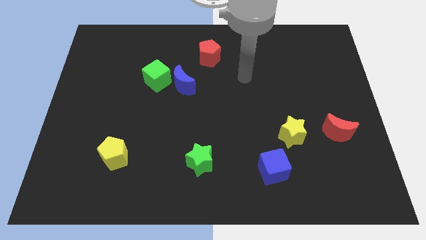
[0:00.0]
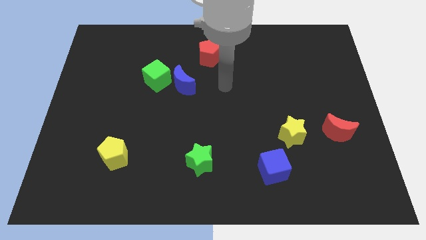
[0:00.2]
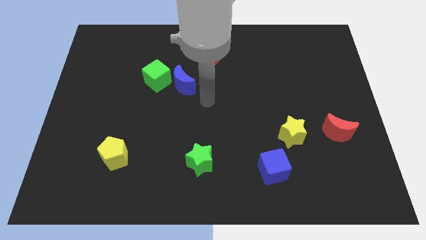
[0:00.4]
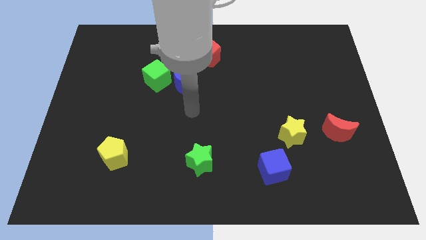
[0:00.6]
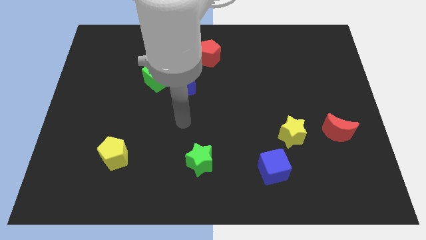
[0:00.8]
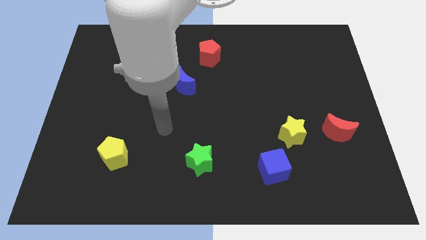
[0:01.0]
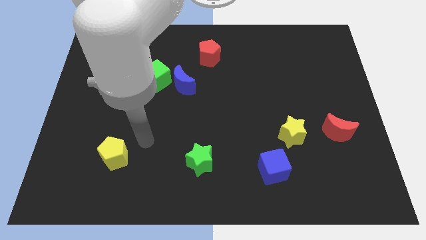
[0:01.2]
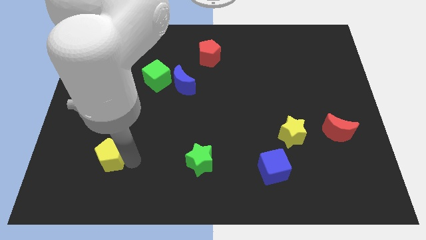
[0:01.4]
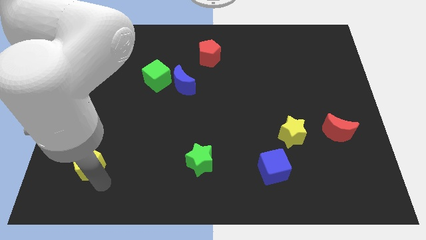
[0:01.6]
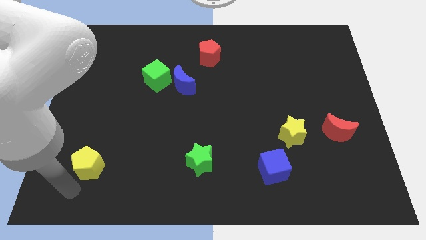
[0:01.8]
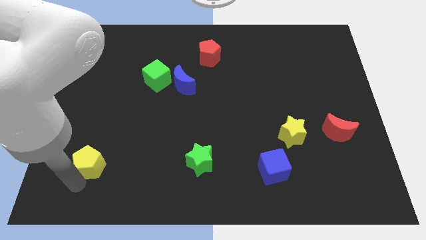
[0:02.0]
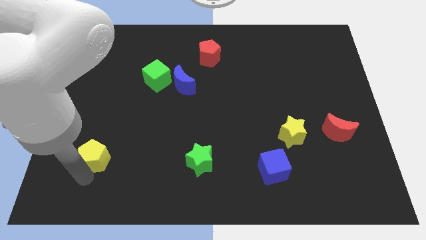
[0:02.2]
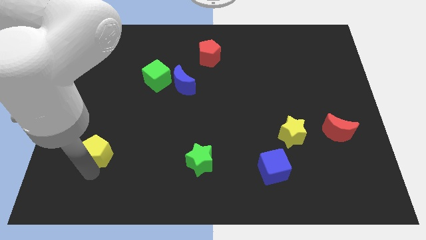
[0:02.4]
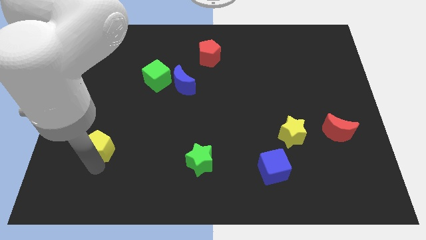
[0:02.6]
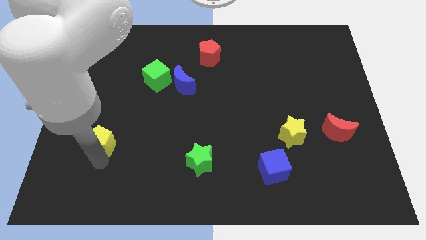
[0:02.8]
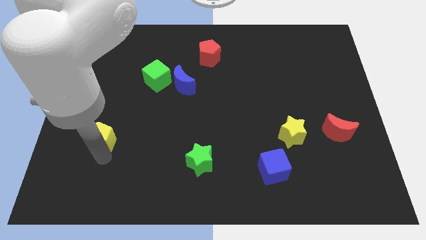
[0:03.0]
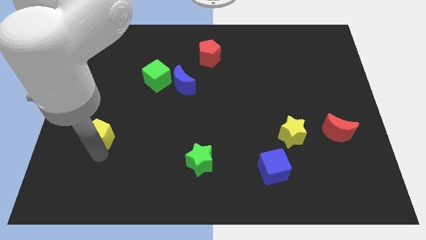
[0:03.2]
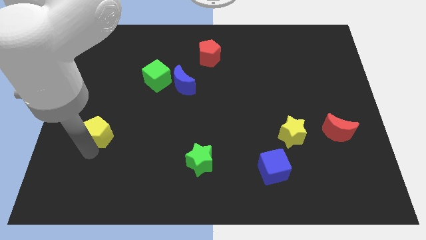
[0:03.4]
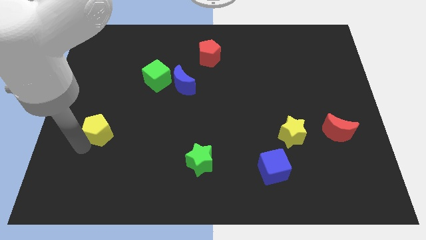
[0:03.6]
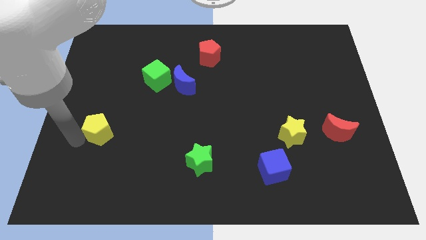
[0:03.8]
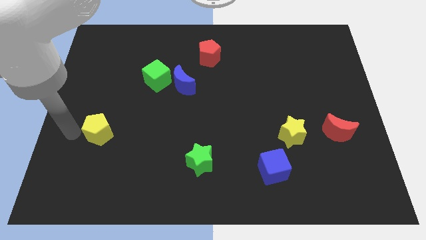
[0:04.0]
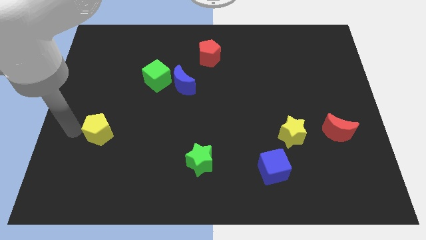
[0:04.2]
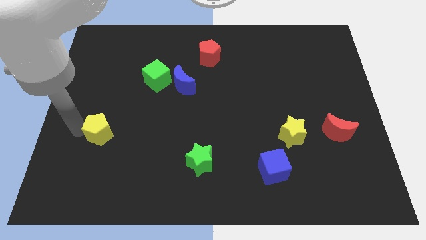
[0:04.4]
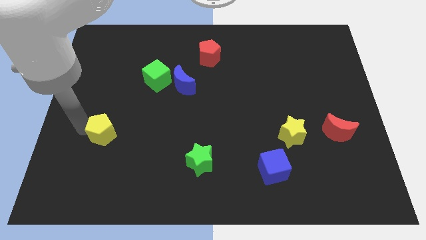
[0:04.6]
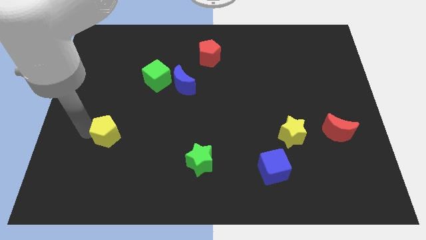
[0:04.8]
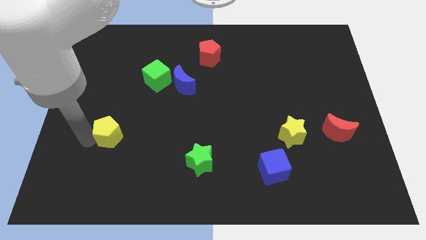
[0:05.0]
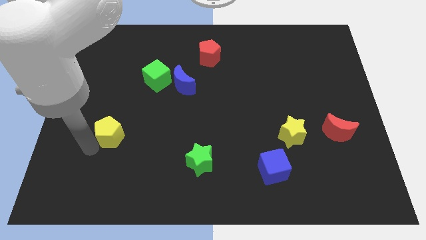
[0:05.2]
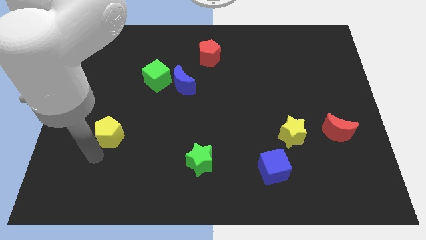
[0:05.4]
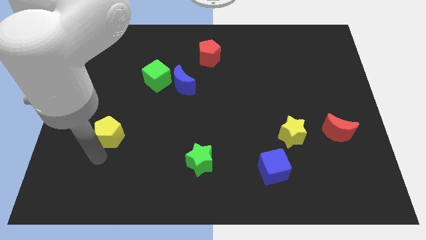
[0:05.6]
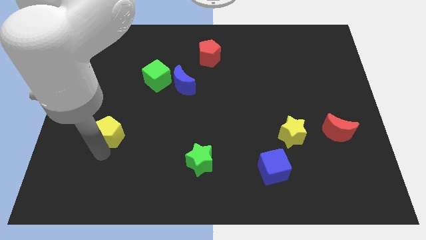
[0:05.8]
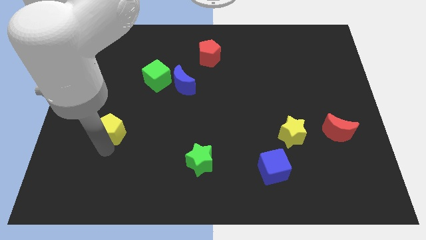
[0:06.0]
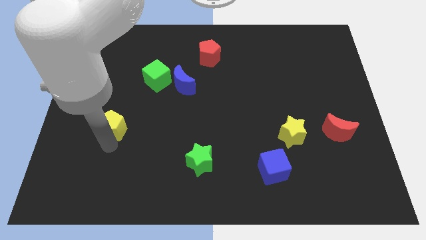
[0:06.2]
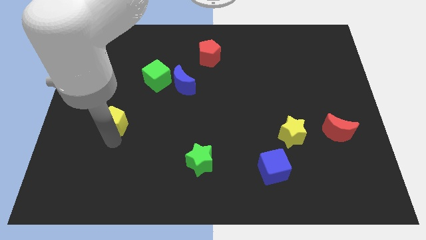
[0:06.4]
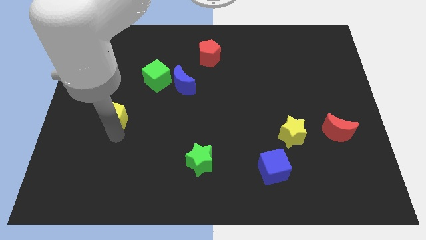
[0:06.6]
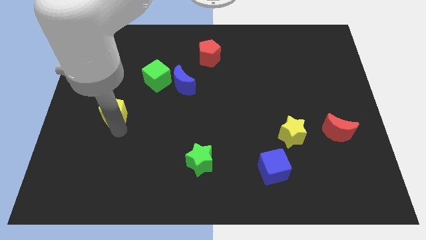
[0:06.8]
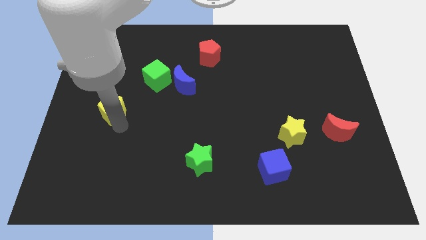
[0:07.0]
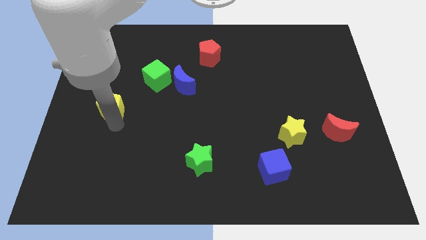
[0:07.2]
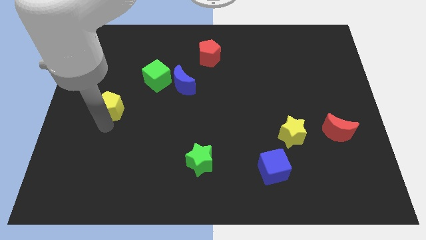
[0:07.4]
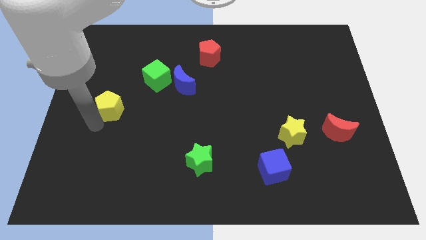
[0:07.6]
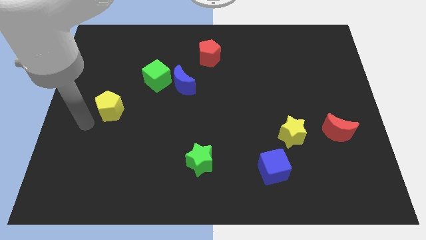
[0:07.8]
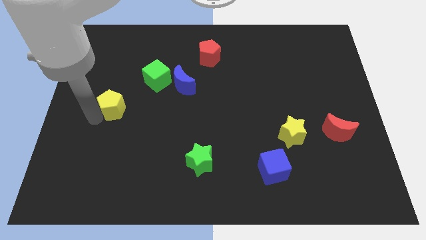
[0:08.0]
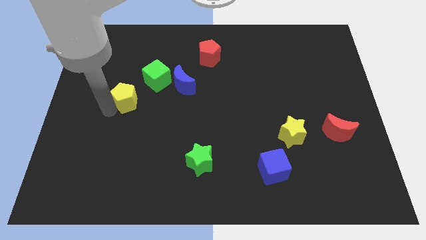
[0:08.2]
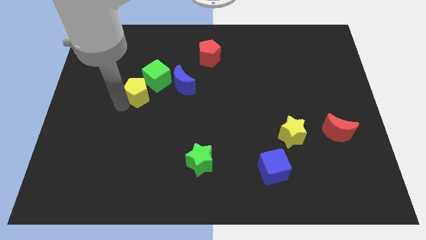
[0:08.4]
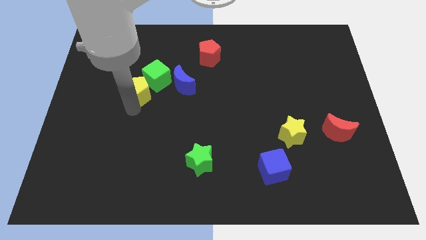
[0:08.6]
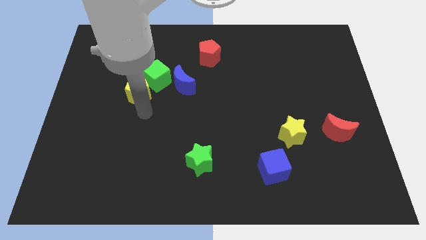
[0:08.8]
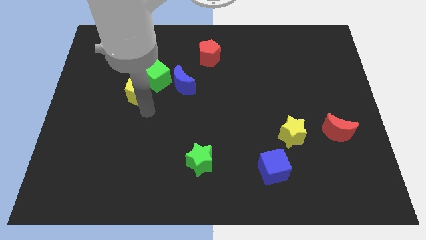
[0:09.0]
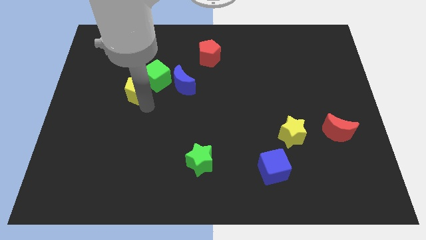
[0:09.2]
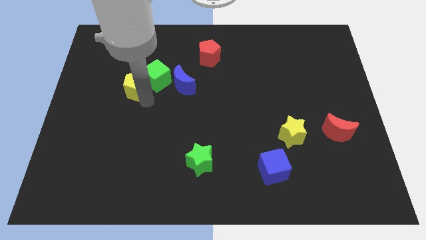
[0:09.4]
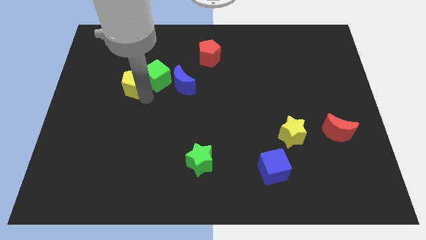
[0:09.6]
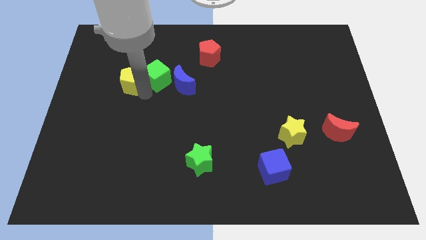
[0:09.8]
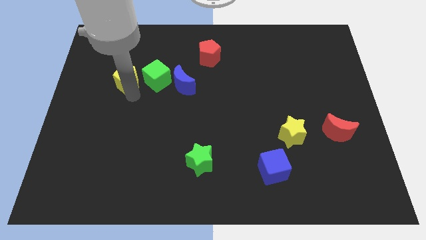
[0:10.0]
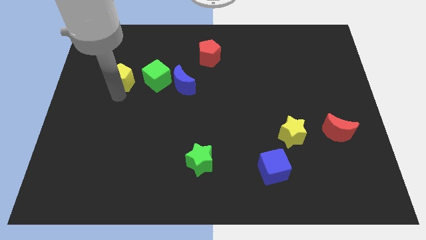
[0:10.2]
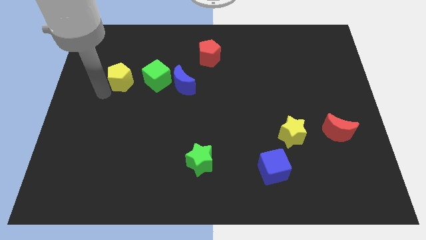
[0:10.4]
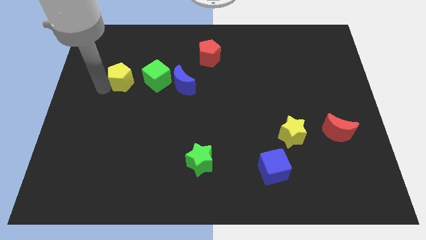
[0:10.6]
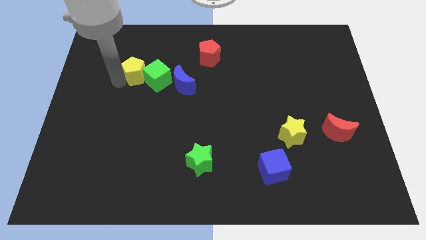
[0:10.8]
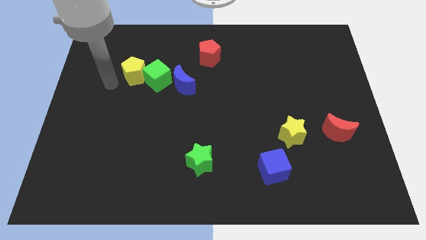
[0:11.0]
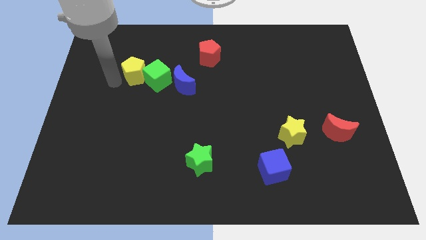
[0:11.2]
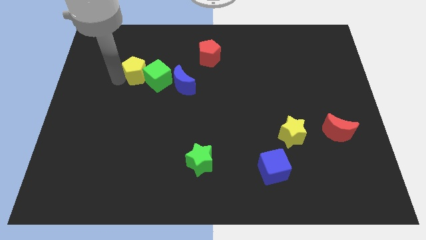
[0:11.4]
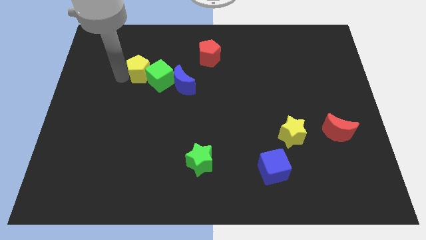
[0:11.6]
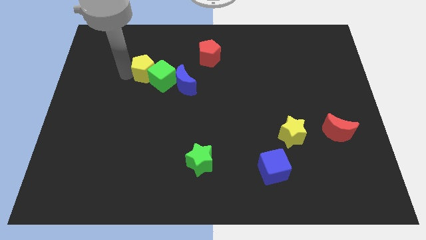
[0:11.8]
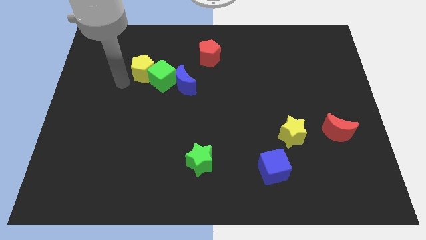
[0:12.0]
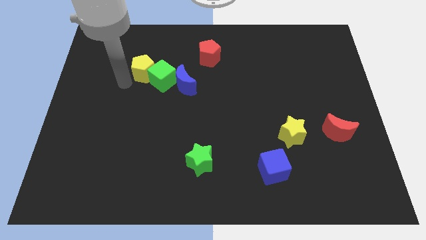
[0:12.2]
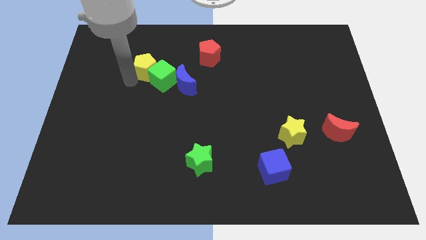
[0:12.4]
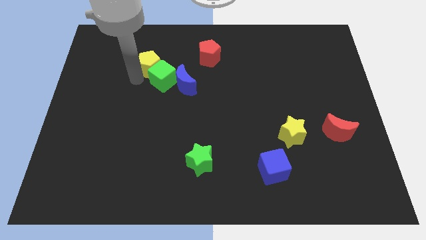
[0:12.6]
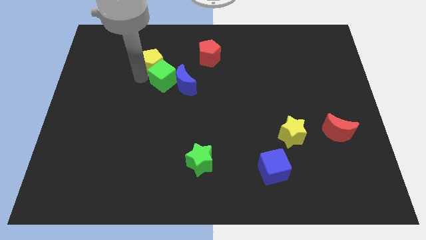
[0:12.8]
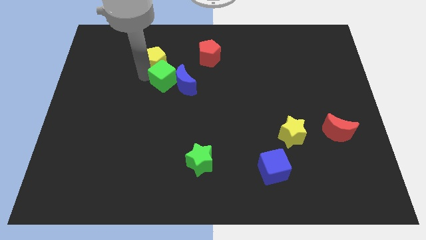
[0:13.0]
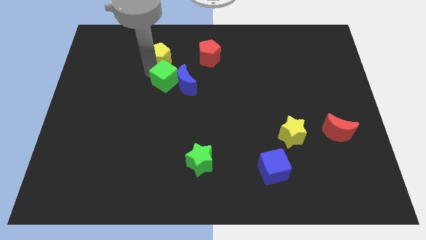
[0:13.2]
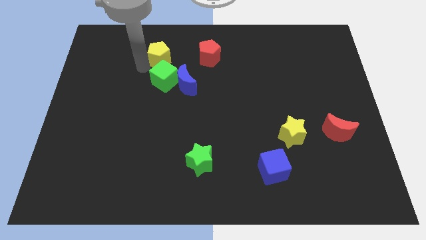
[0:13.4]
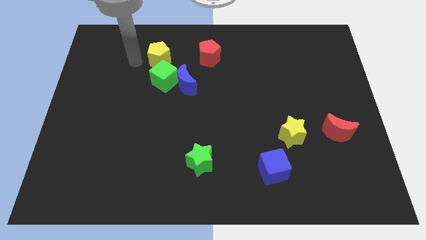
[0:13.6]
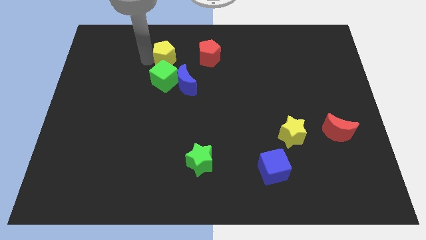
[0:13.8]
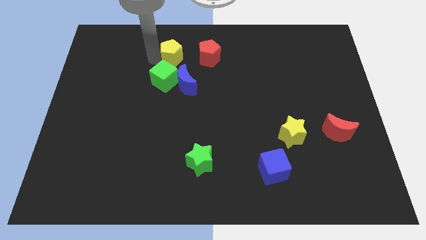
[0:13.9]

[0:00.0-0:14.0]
push the yellow pentagon to the top side of the blue moon
